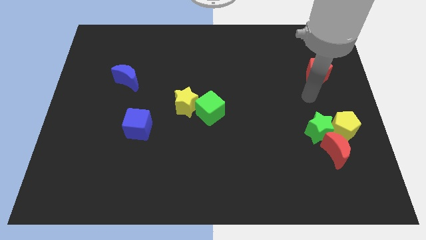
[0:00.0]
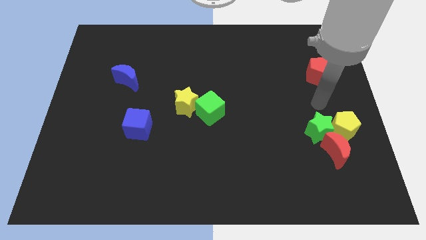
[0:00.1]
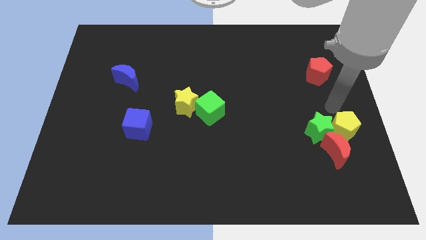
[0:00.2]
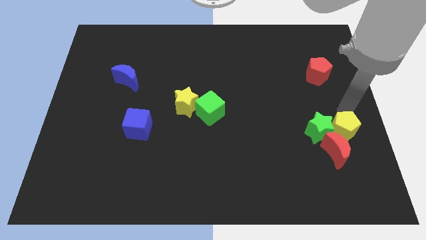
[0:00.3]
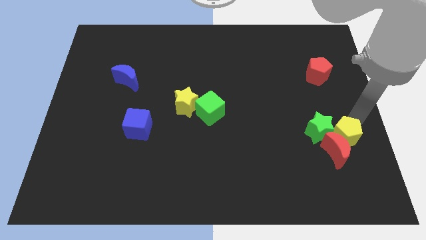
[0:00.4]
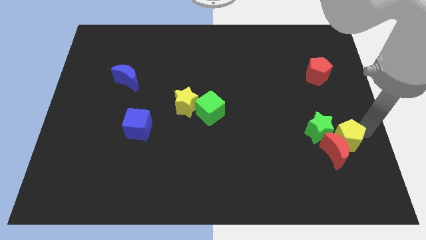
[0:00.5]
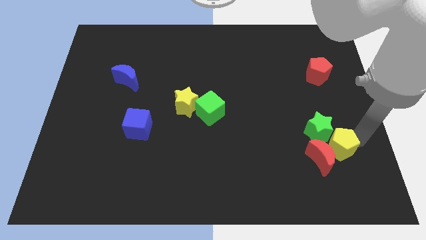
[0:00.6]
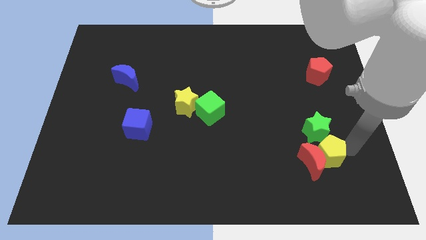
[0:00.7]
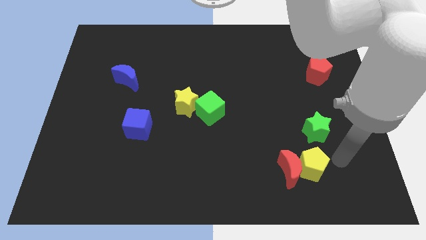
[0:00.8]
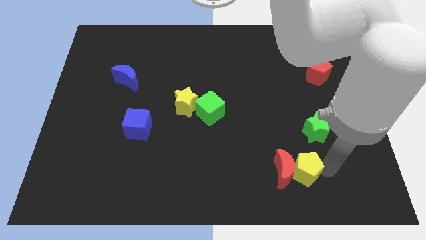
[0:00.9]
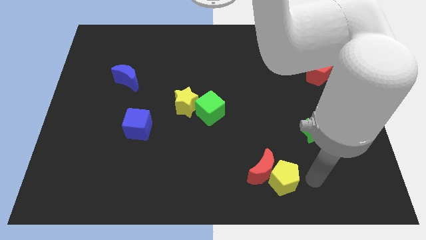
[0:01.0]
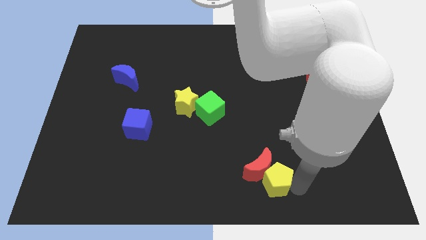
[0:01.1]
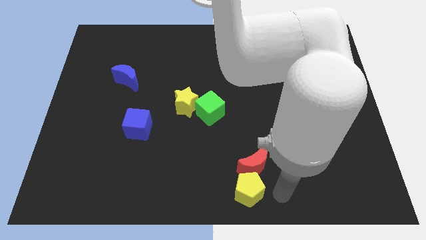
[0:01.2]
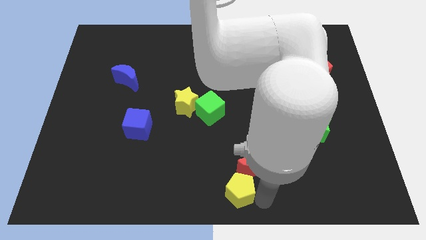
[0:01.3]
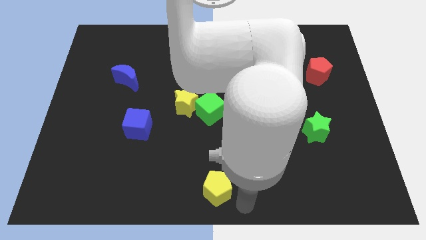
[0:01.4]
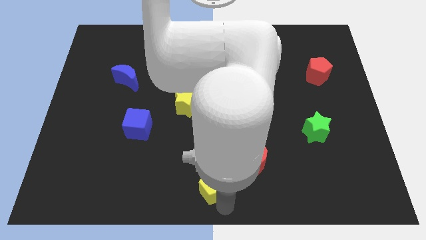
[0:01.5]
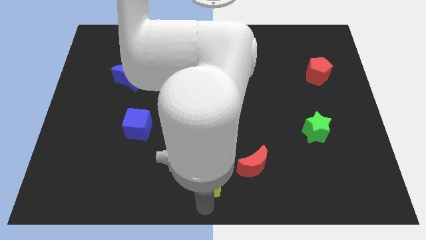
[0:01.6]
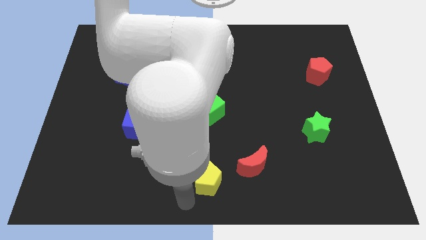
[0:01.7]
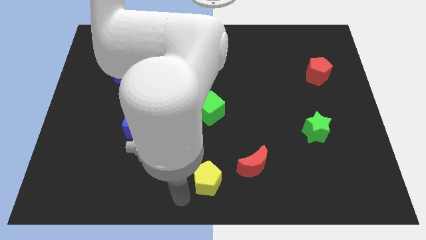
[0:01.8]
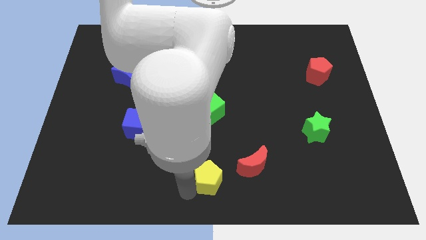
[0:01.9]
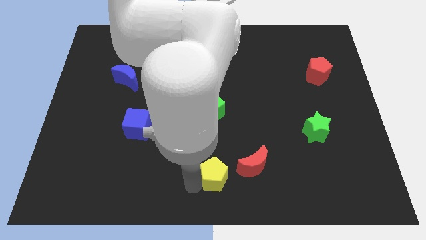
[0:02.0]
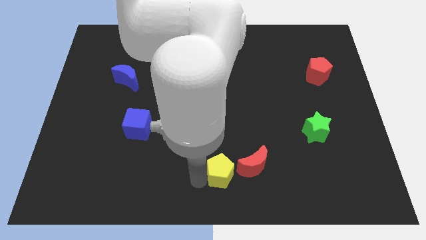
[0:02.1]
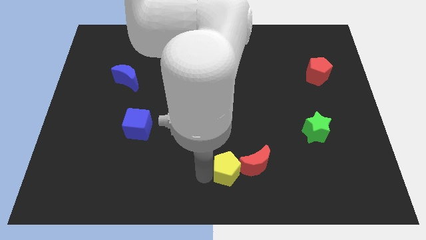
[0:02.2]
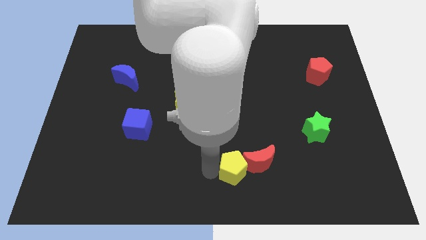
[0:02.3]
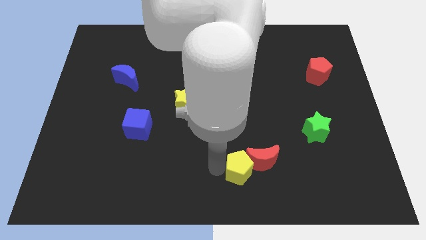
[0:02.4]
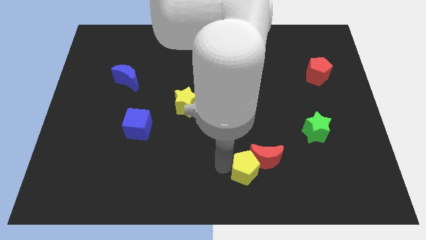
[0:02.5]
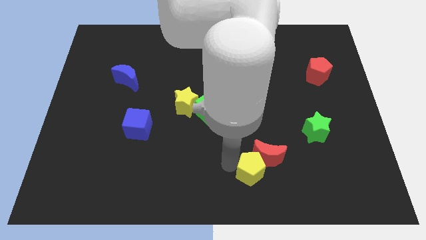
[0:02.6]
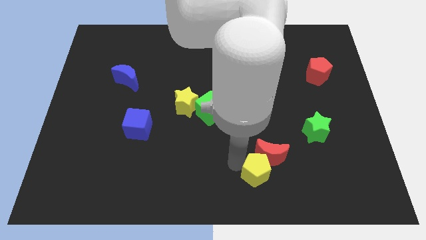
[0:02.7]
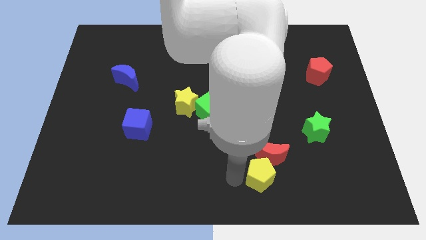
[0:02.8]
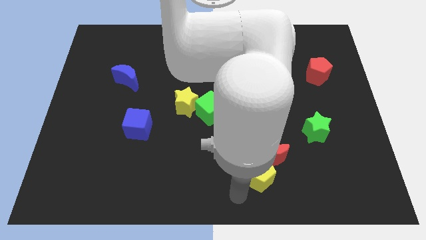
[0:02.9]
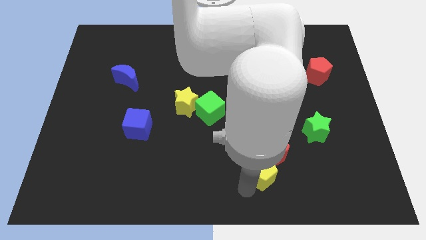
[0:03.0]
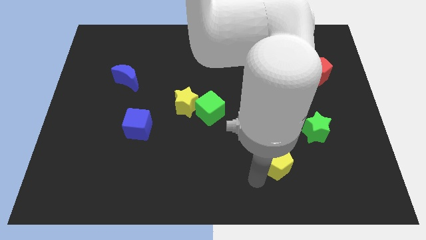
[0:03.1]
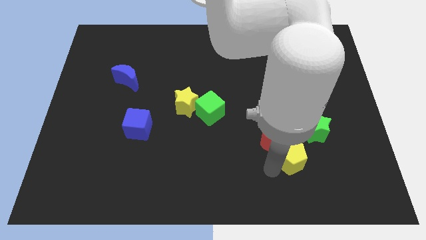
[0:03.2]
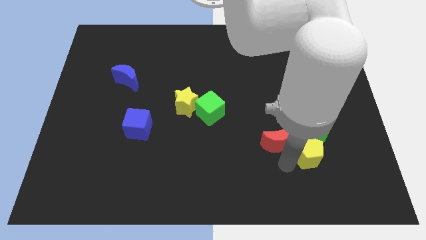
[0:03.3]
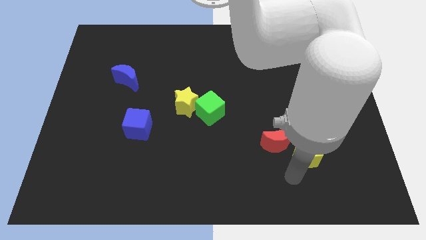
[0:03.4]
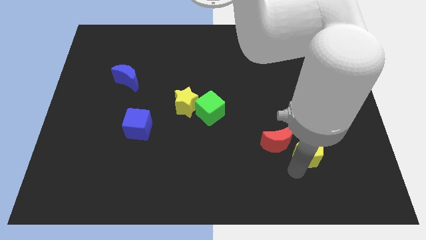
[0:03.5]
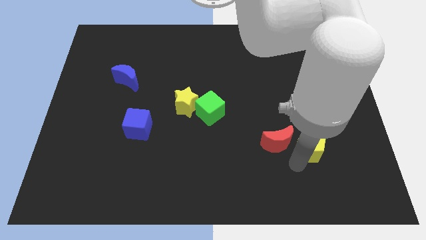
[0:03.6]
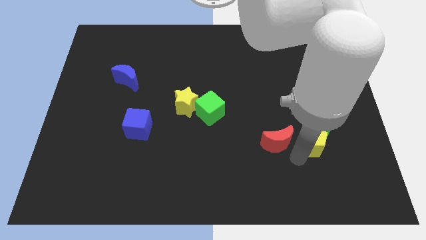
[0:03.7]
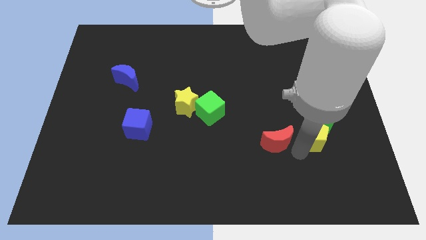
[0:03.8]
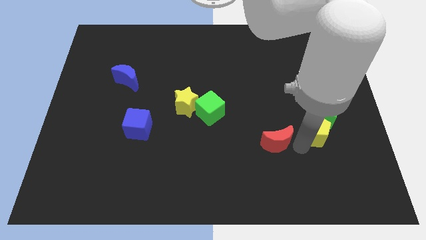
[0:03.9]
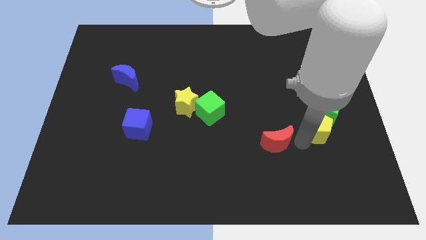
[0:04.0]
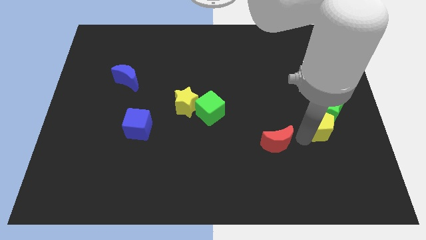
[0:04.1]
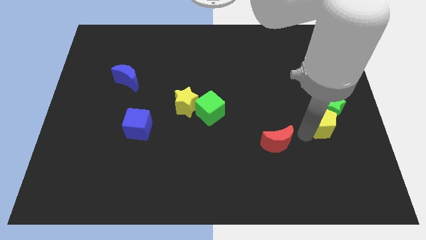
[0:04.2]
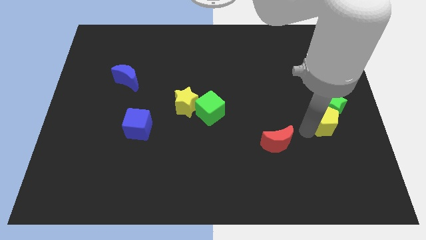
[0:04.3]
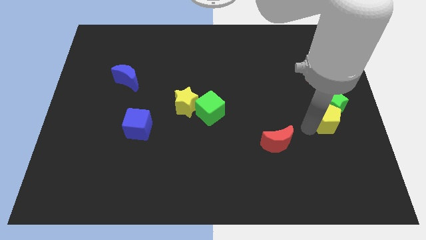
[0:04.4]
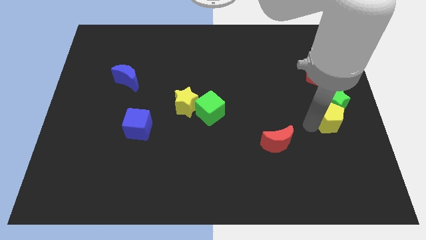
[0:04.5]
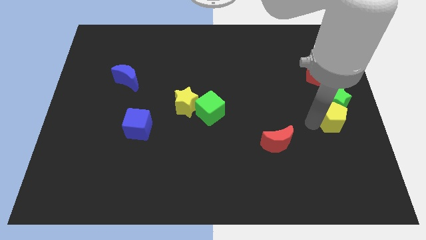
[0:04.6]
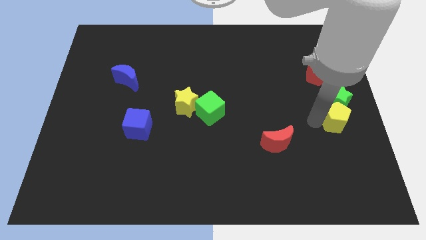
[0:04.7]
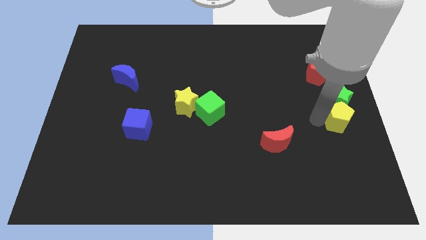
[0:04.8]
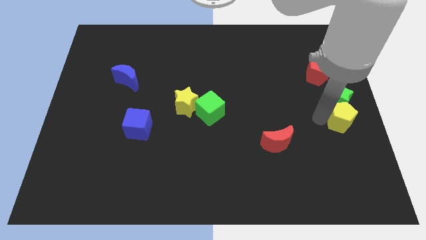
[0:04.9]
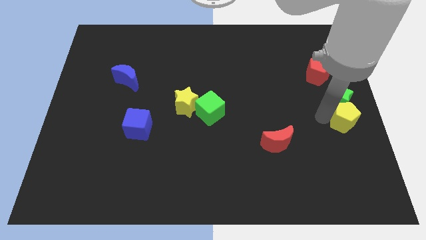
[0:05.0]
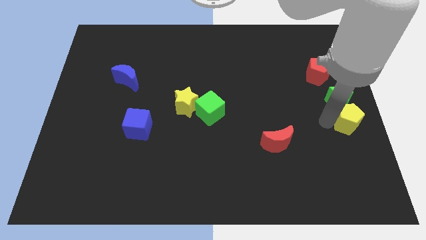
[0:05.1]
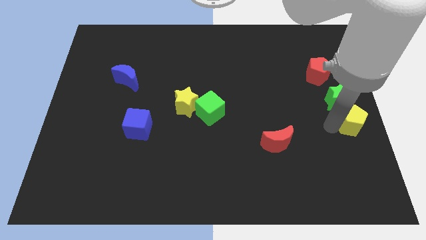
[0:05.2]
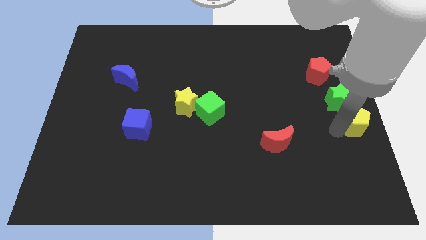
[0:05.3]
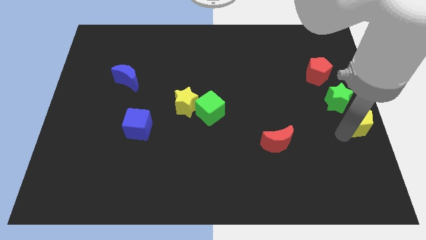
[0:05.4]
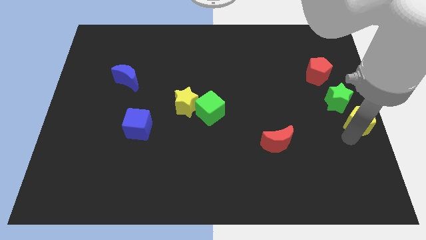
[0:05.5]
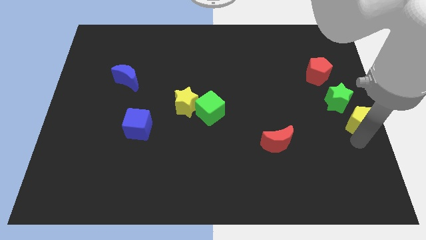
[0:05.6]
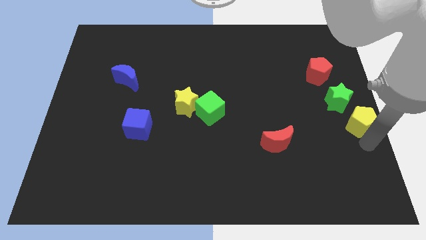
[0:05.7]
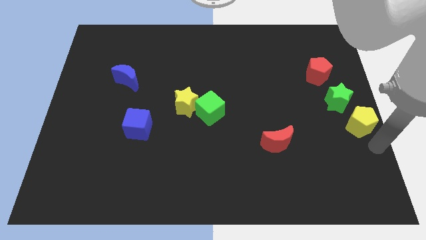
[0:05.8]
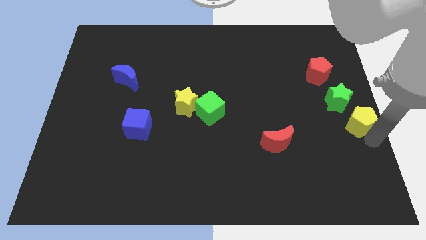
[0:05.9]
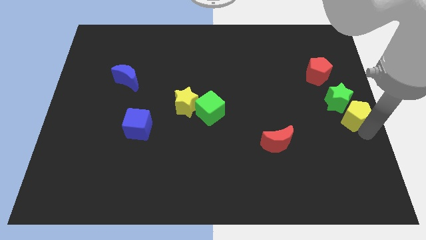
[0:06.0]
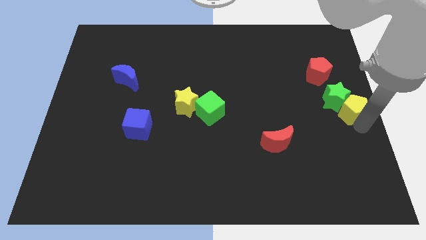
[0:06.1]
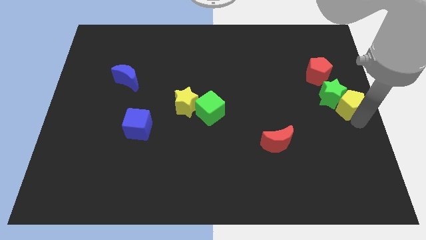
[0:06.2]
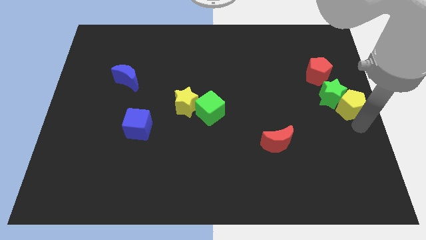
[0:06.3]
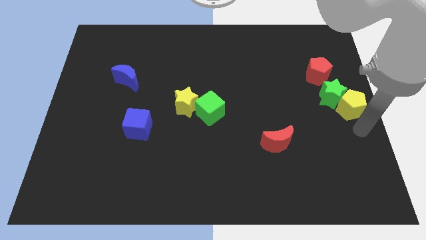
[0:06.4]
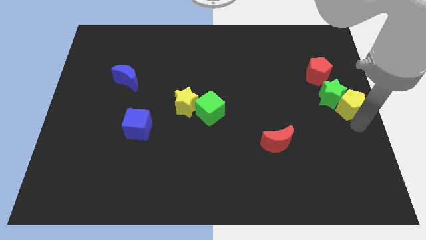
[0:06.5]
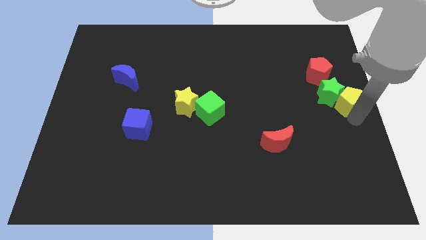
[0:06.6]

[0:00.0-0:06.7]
slide the yellow pentagon up a bit

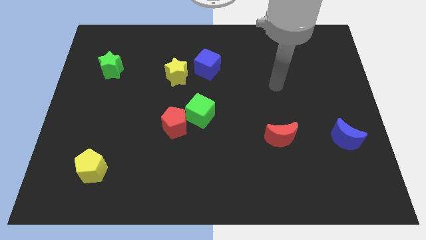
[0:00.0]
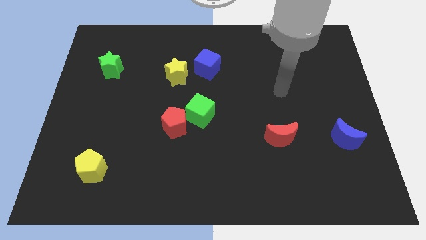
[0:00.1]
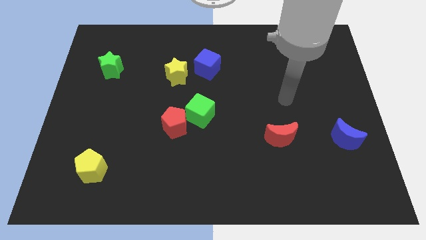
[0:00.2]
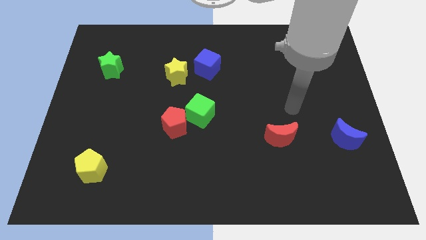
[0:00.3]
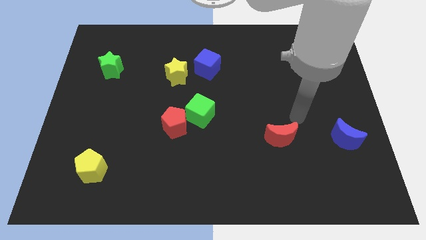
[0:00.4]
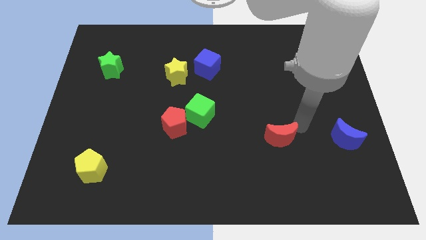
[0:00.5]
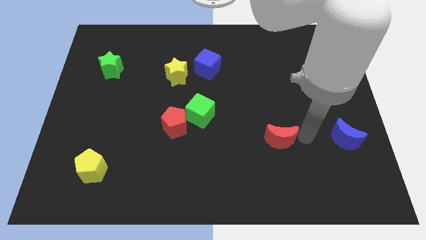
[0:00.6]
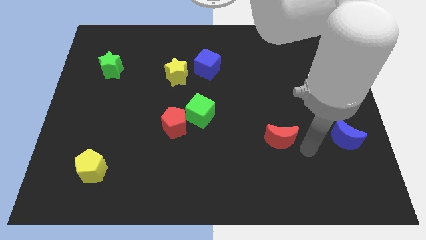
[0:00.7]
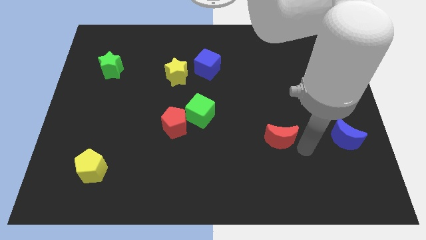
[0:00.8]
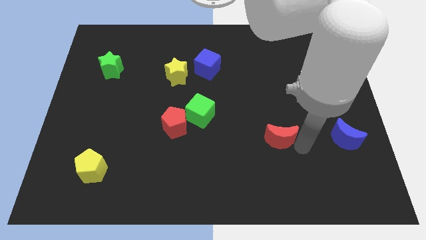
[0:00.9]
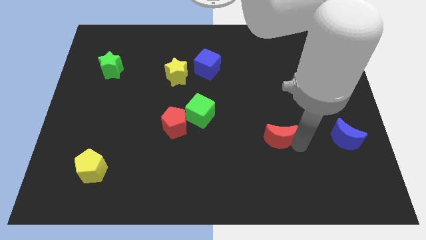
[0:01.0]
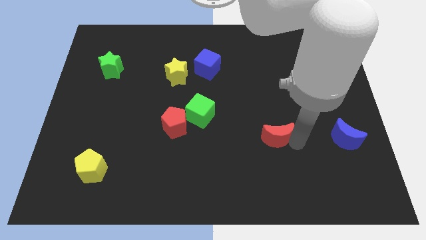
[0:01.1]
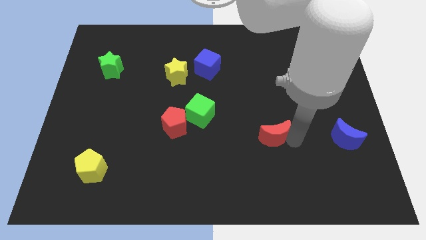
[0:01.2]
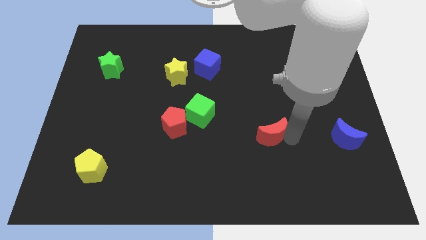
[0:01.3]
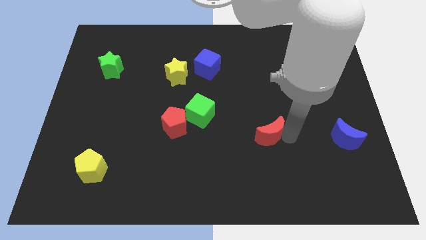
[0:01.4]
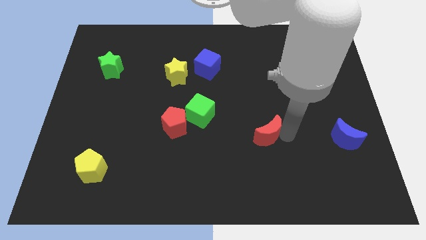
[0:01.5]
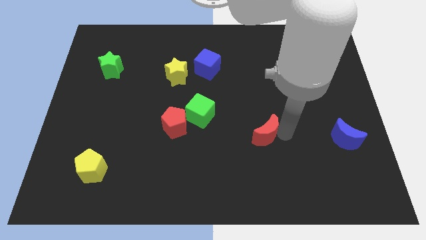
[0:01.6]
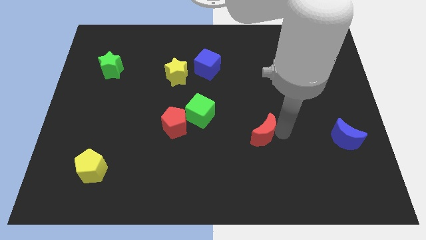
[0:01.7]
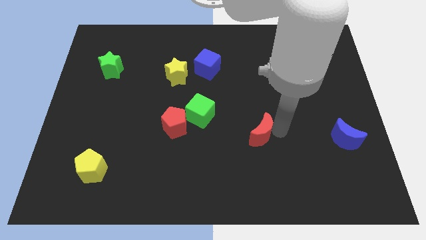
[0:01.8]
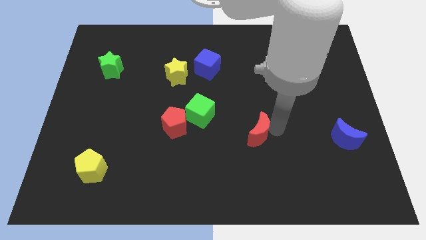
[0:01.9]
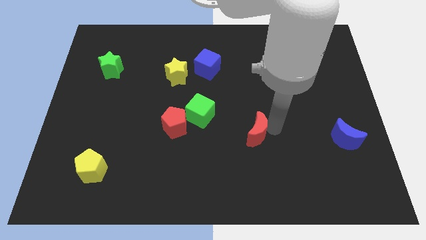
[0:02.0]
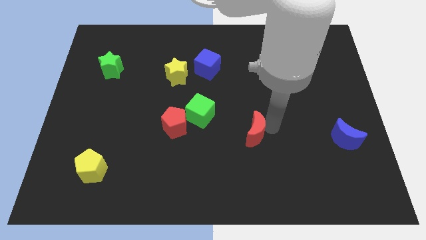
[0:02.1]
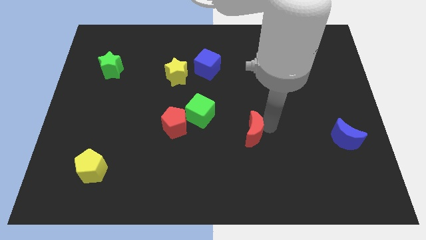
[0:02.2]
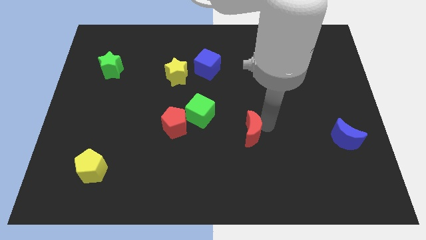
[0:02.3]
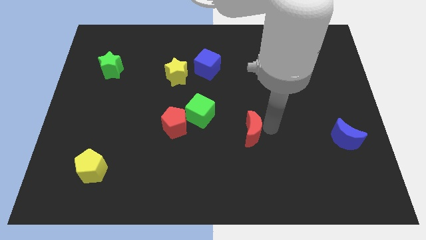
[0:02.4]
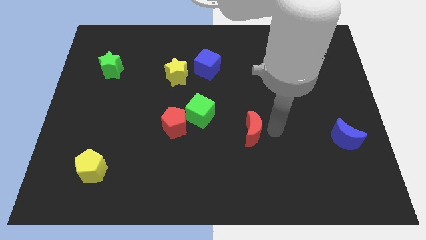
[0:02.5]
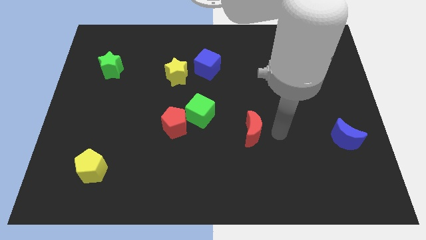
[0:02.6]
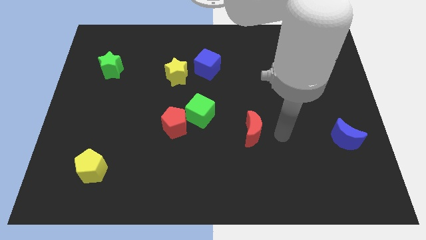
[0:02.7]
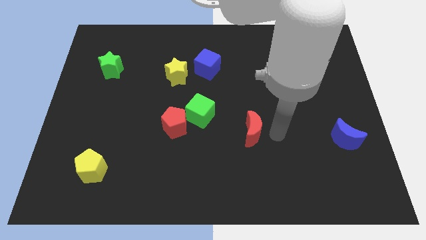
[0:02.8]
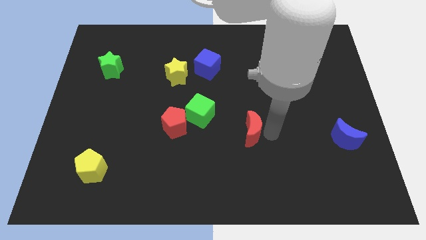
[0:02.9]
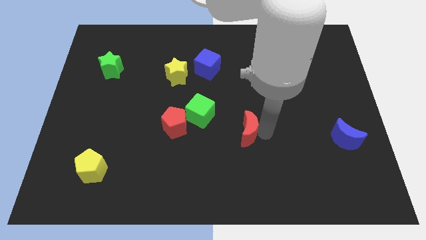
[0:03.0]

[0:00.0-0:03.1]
slightly move the red moon left
